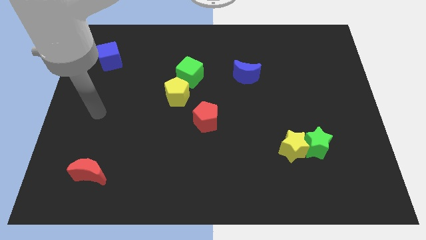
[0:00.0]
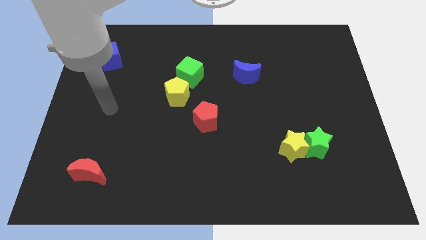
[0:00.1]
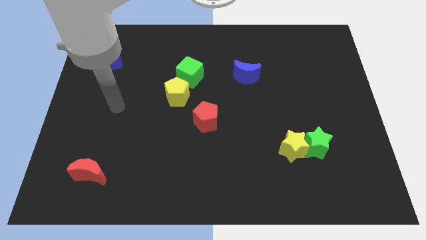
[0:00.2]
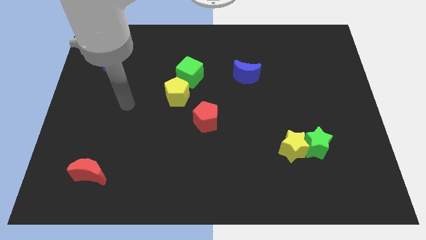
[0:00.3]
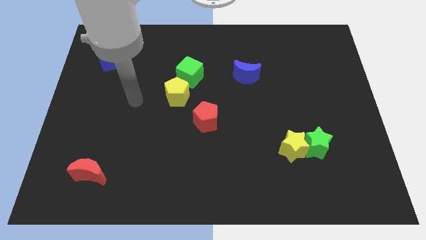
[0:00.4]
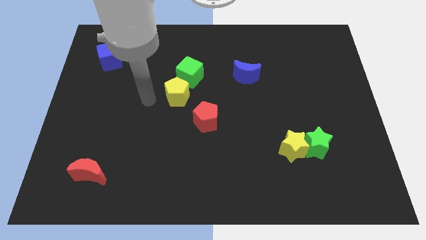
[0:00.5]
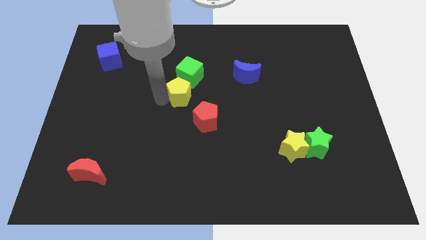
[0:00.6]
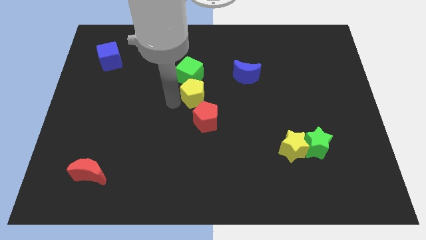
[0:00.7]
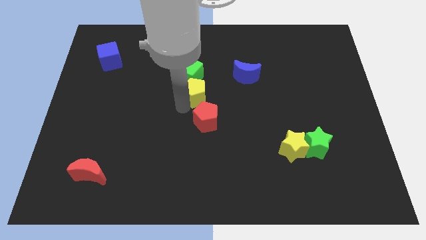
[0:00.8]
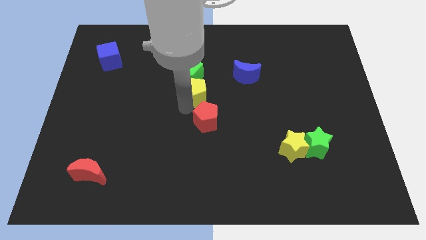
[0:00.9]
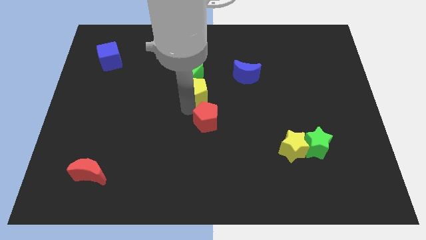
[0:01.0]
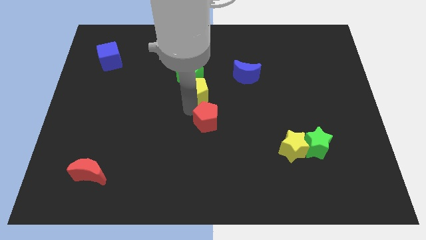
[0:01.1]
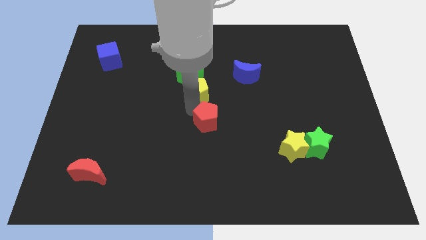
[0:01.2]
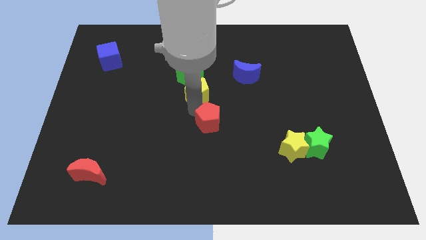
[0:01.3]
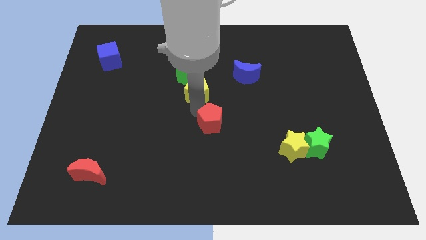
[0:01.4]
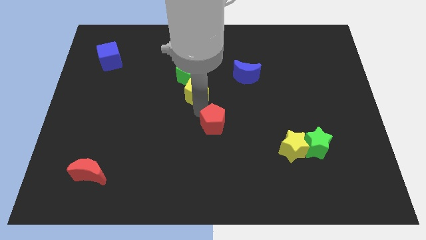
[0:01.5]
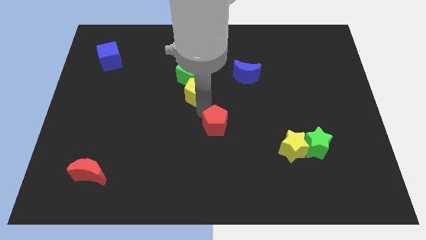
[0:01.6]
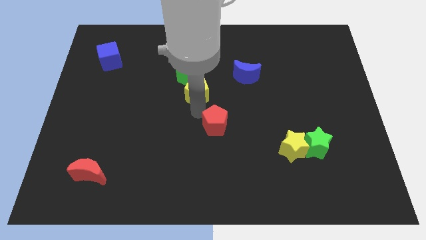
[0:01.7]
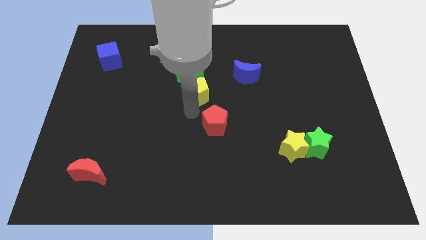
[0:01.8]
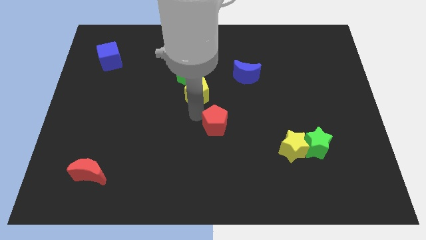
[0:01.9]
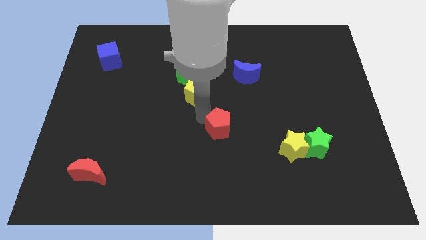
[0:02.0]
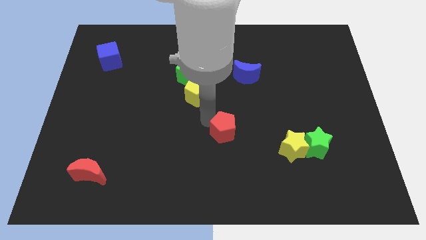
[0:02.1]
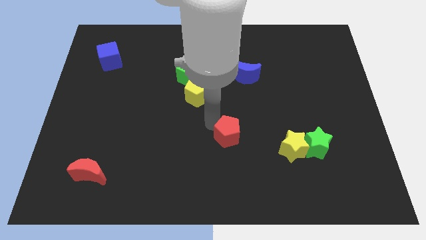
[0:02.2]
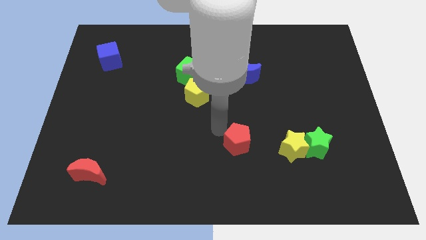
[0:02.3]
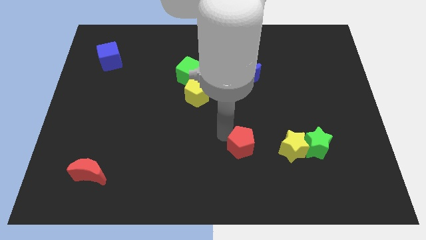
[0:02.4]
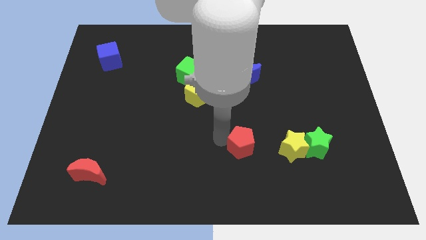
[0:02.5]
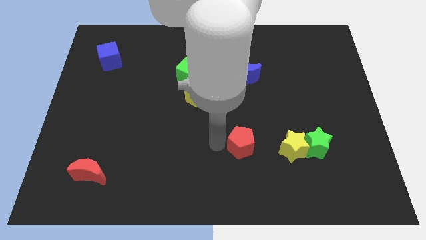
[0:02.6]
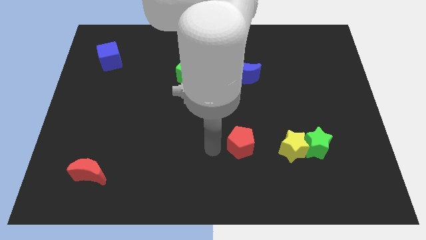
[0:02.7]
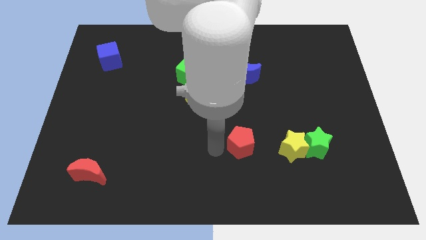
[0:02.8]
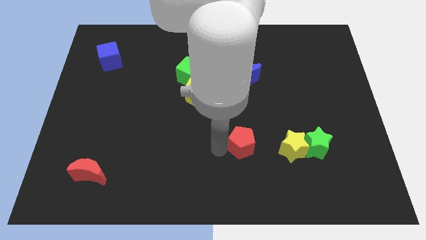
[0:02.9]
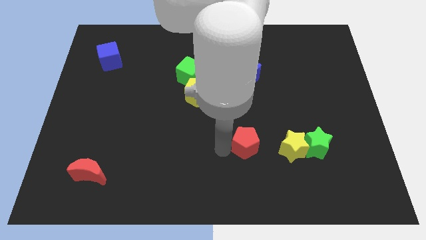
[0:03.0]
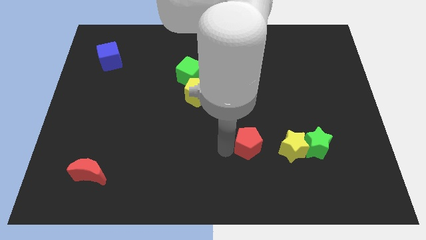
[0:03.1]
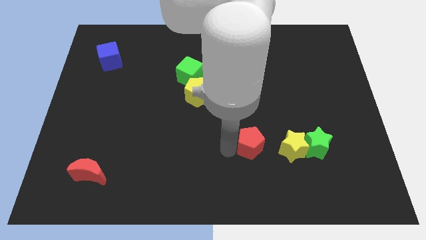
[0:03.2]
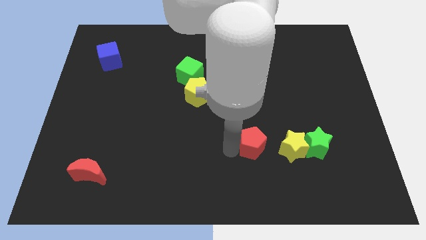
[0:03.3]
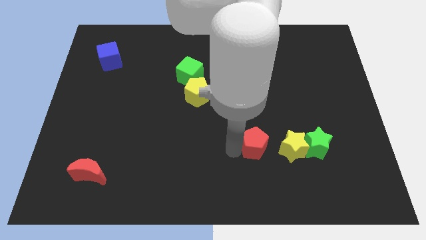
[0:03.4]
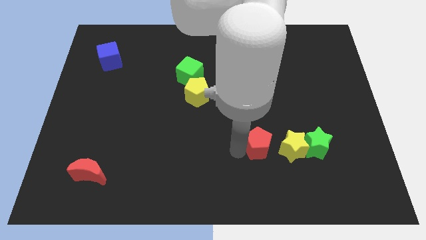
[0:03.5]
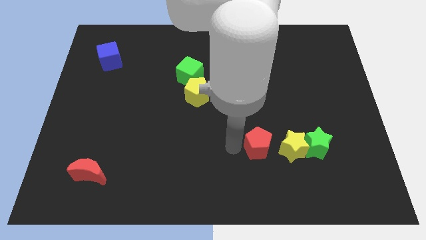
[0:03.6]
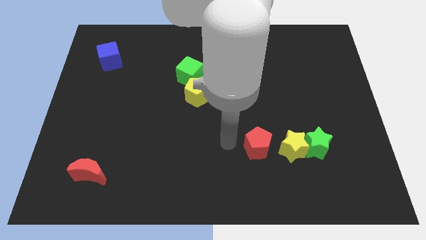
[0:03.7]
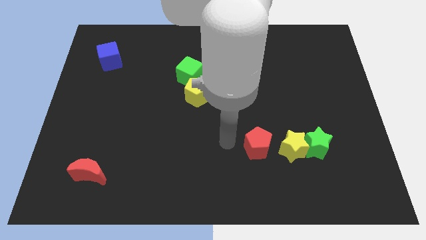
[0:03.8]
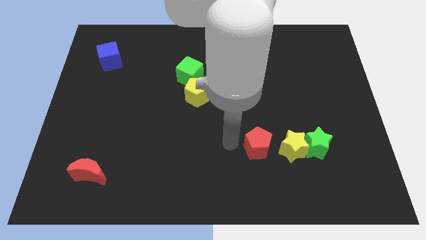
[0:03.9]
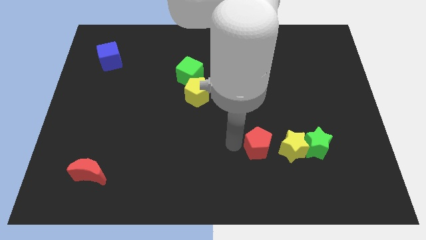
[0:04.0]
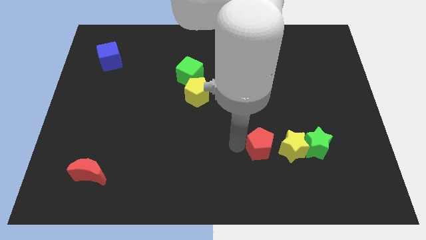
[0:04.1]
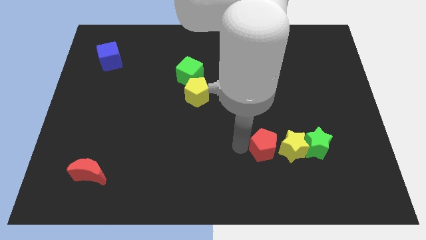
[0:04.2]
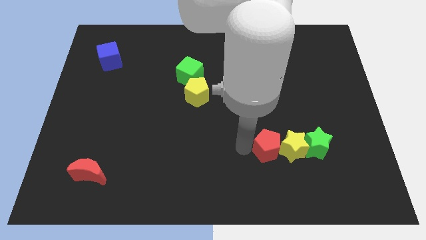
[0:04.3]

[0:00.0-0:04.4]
push the red pentagon to the yellow star

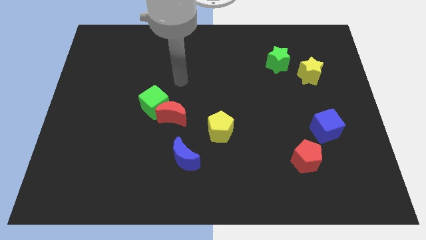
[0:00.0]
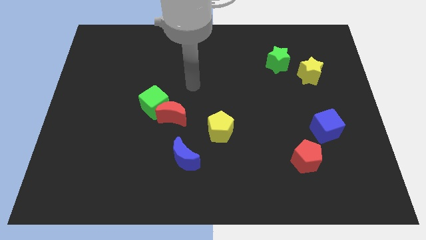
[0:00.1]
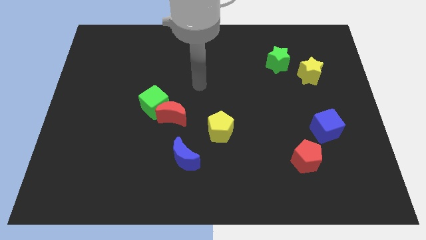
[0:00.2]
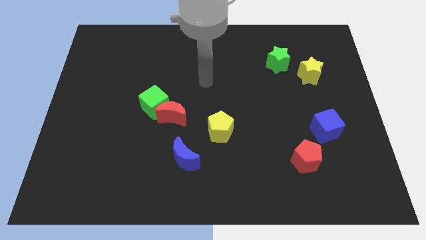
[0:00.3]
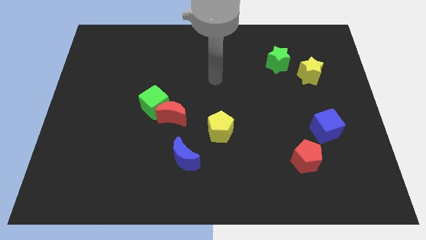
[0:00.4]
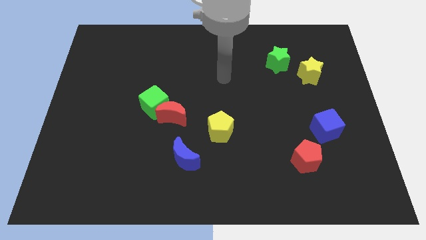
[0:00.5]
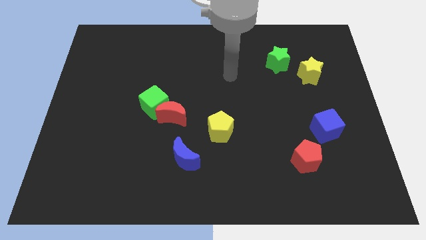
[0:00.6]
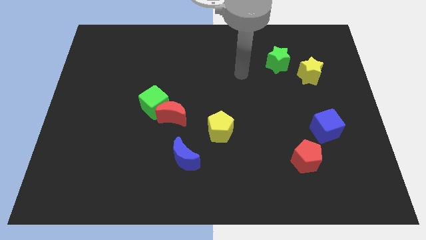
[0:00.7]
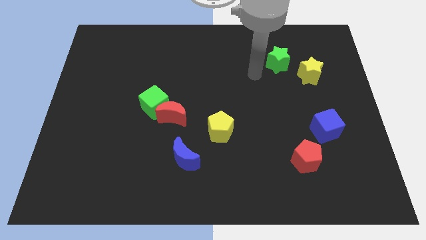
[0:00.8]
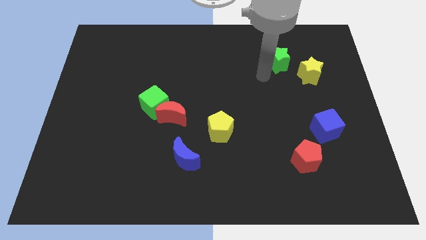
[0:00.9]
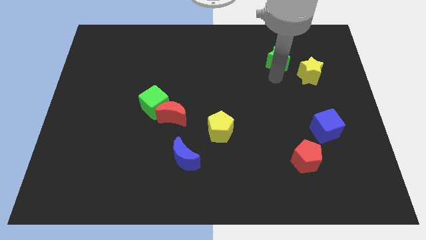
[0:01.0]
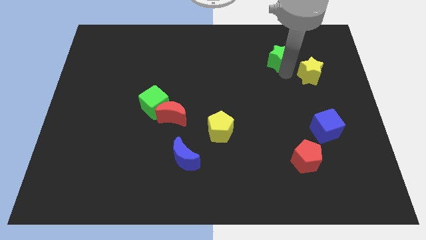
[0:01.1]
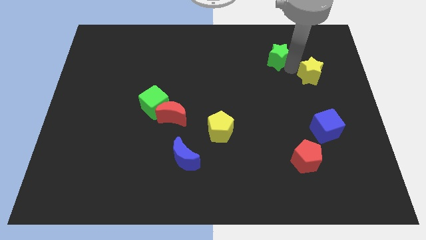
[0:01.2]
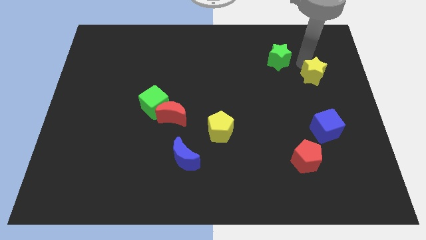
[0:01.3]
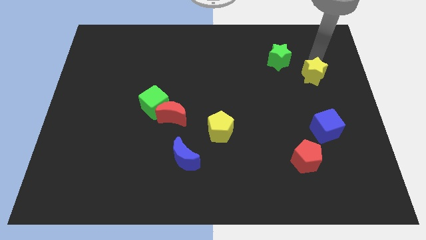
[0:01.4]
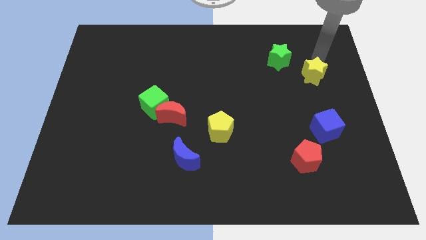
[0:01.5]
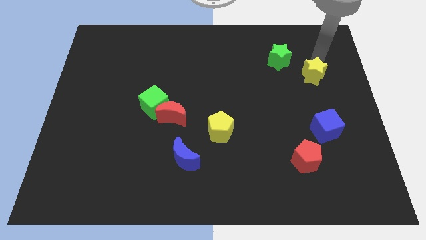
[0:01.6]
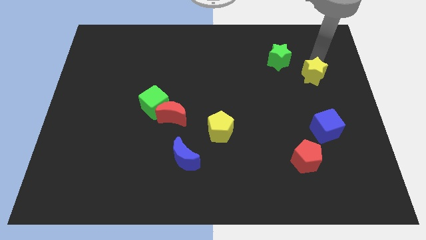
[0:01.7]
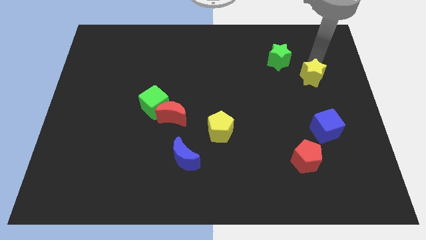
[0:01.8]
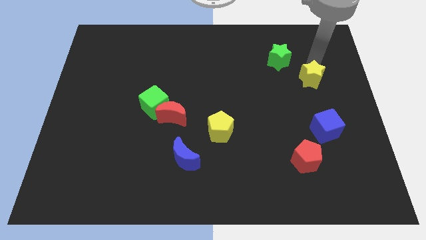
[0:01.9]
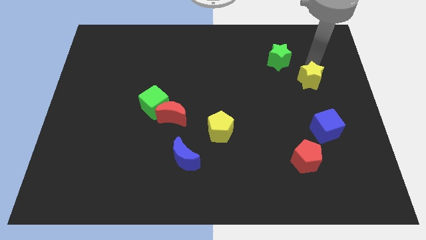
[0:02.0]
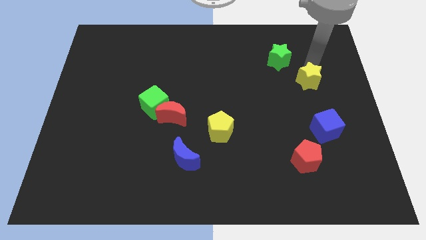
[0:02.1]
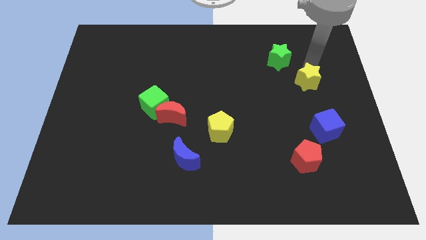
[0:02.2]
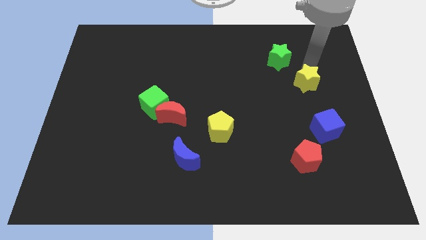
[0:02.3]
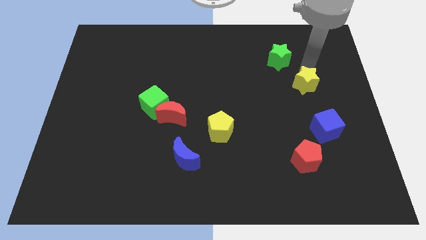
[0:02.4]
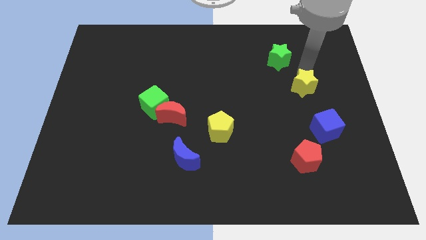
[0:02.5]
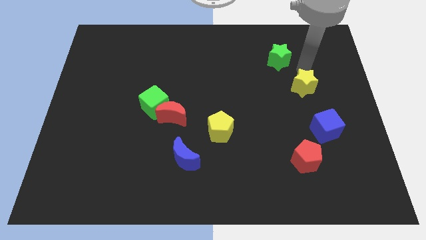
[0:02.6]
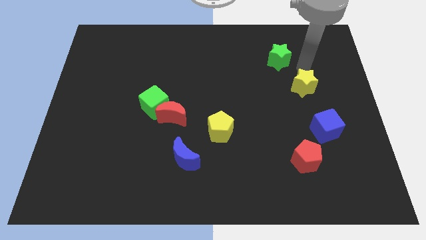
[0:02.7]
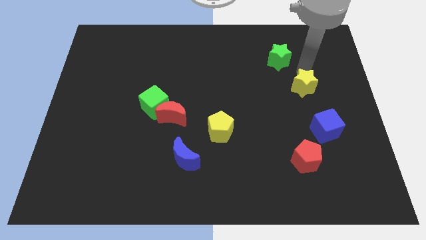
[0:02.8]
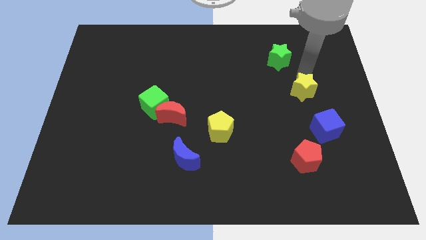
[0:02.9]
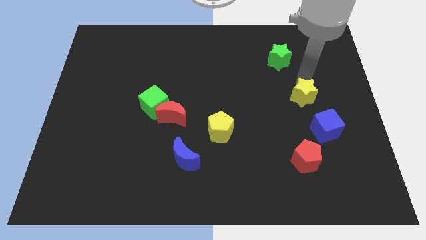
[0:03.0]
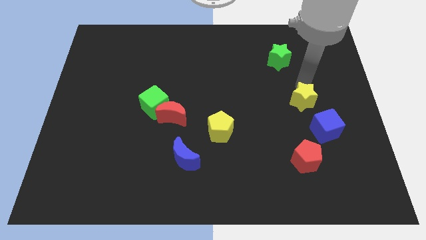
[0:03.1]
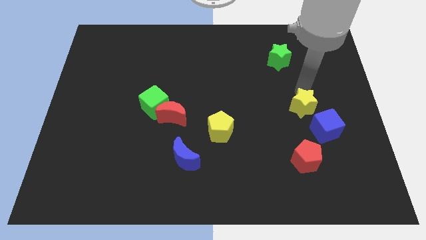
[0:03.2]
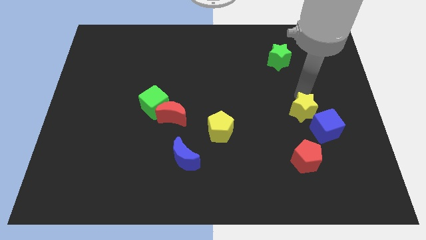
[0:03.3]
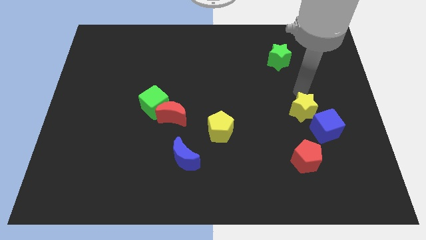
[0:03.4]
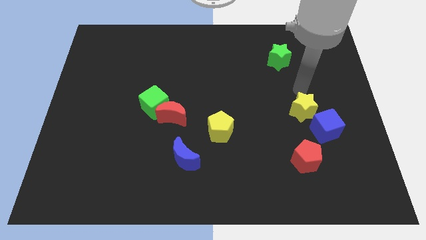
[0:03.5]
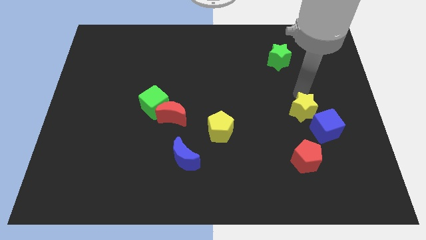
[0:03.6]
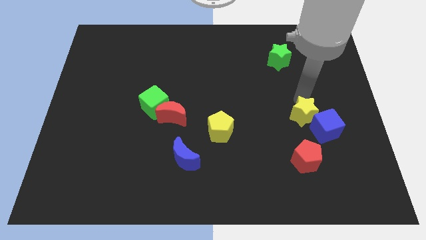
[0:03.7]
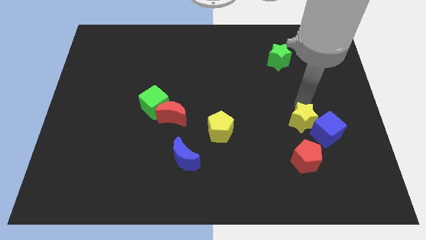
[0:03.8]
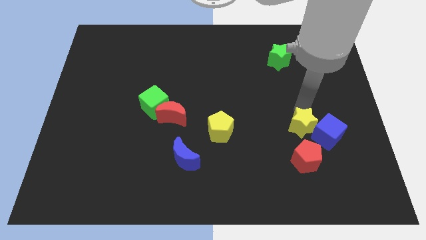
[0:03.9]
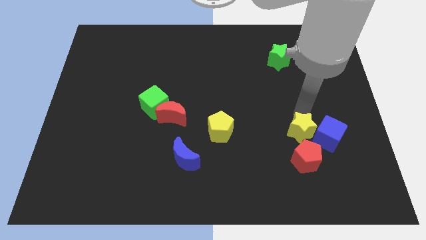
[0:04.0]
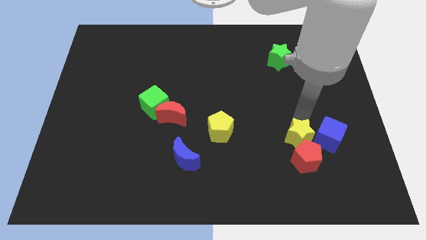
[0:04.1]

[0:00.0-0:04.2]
move the yellow star towards the red pentagon
